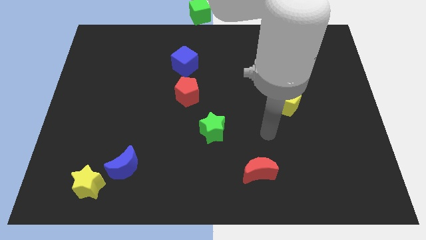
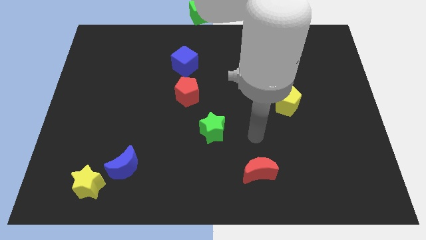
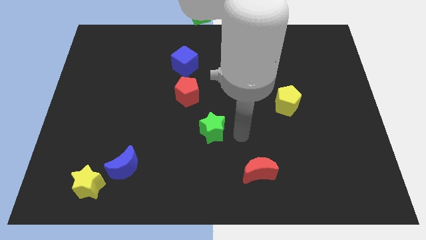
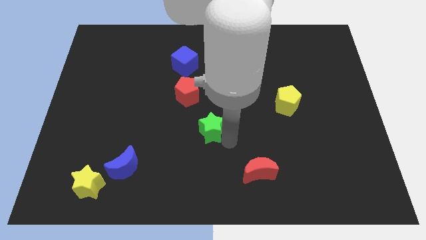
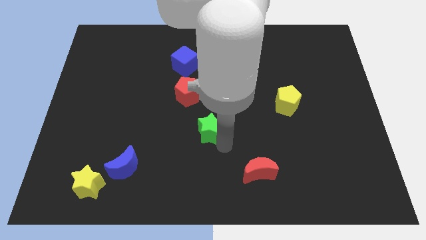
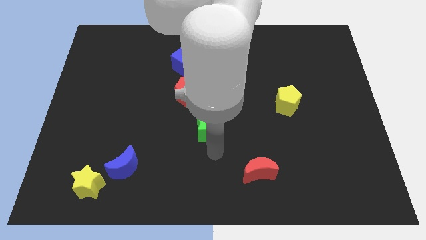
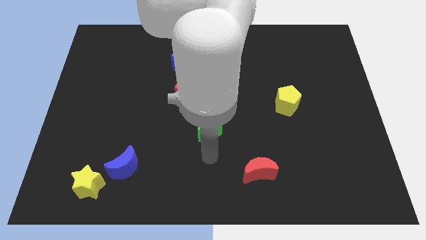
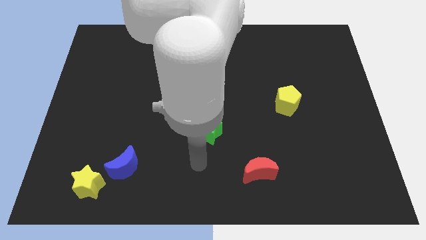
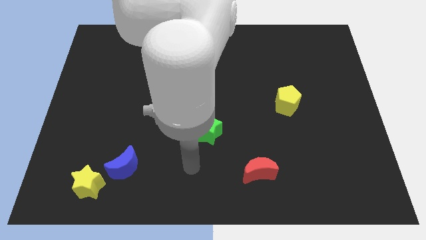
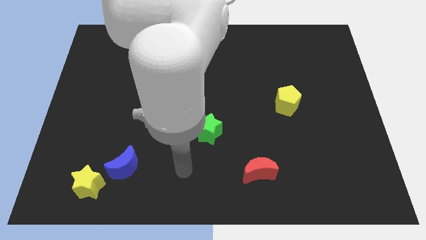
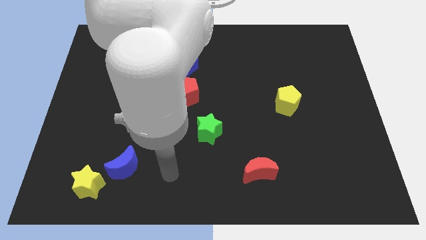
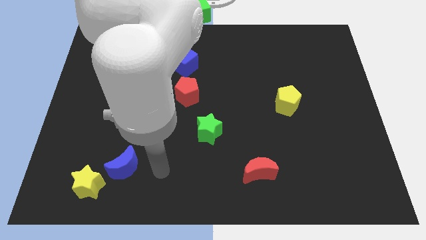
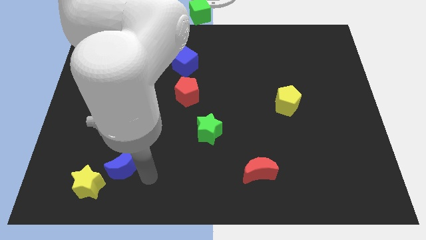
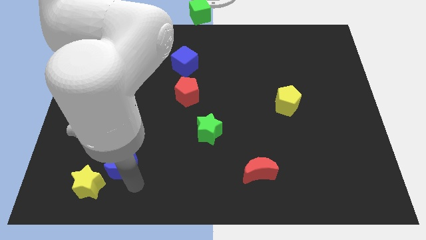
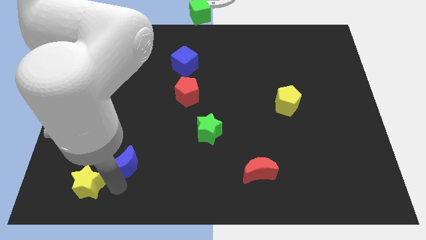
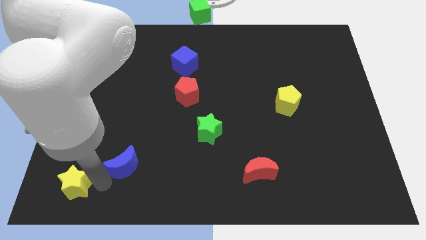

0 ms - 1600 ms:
separate the blue moon from the yellow star

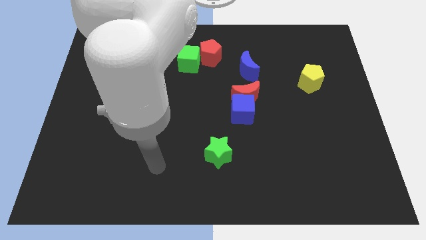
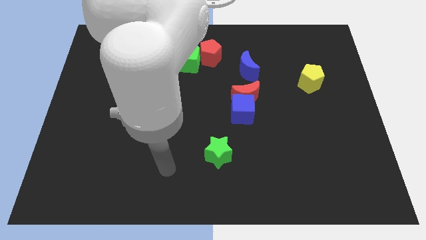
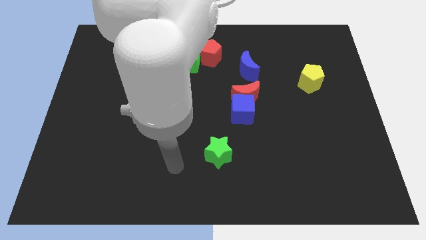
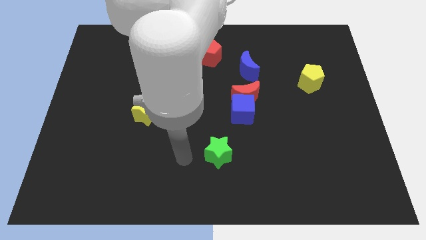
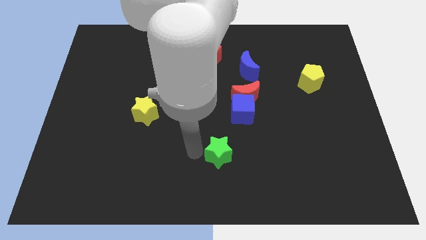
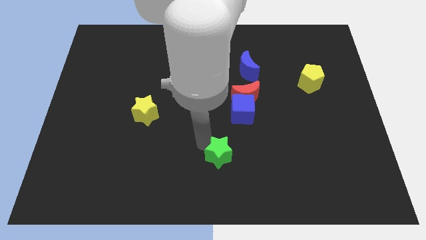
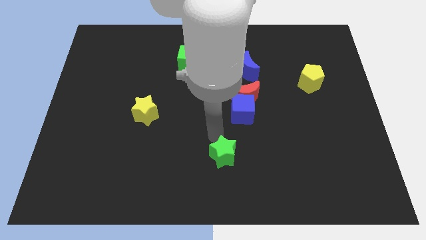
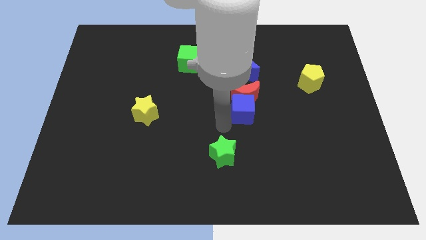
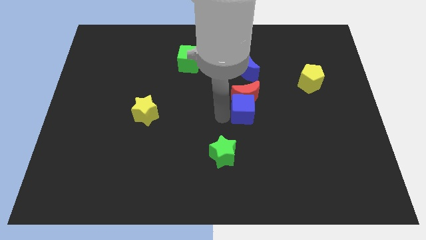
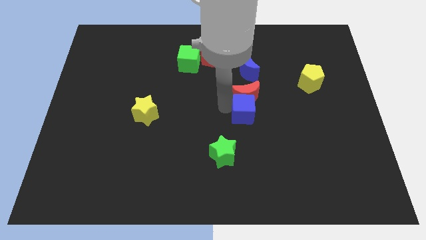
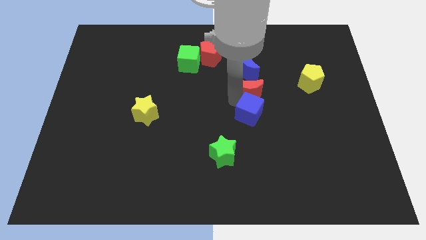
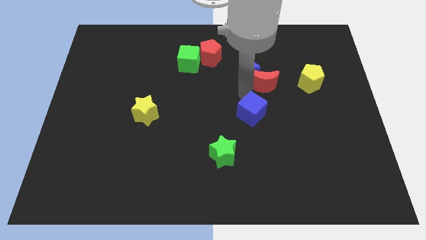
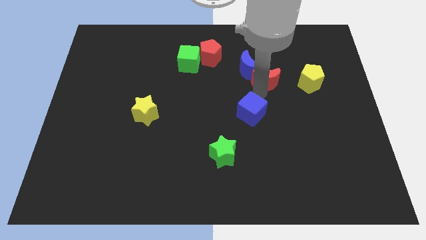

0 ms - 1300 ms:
pull the blue cube apart from the red moon

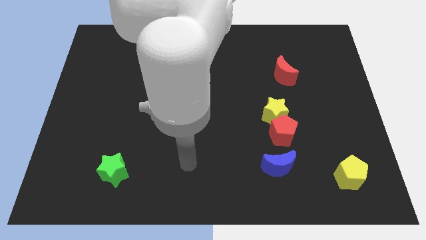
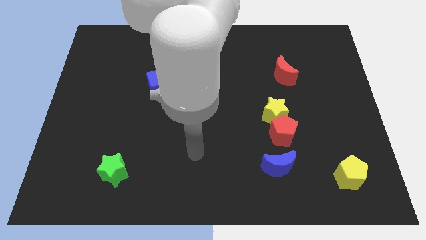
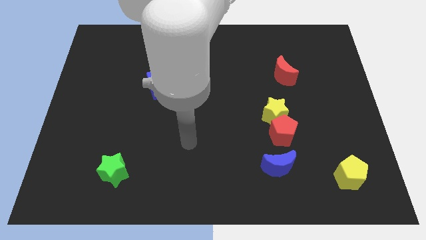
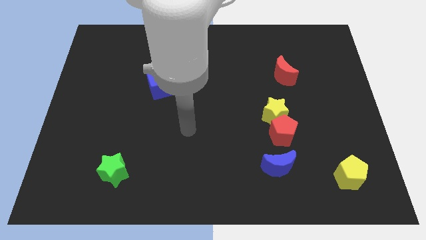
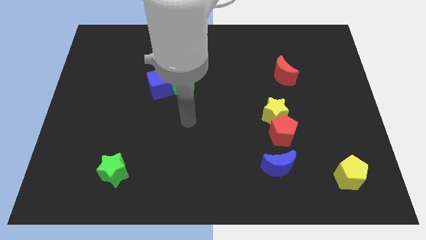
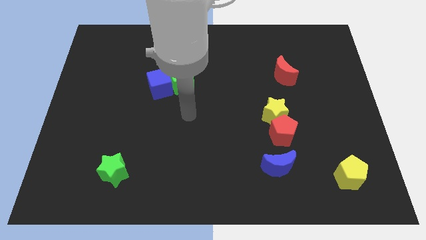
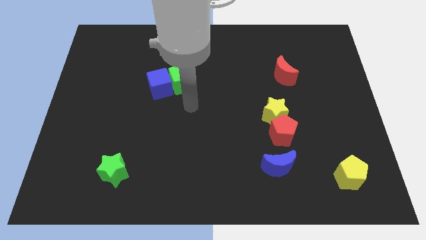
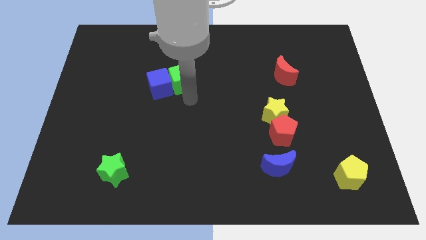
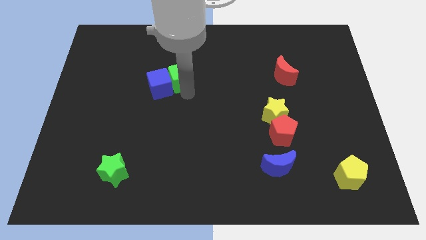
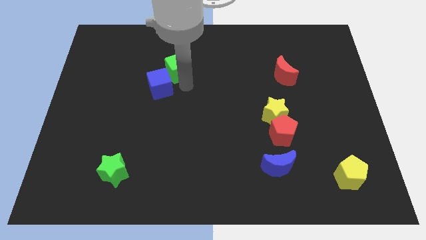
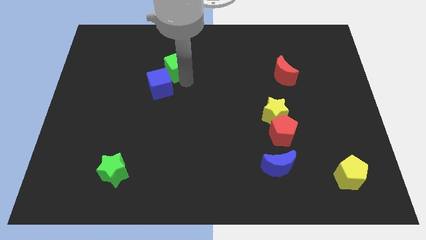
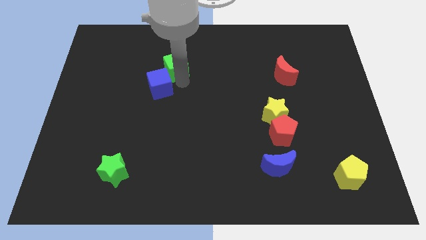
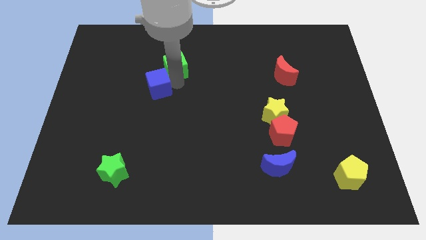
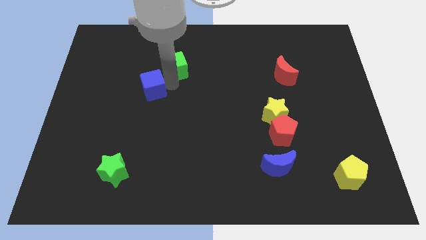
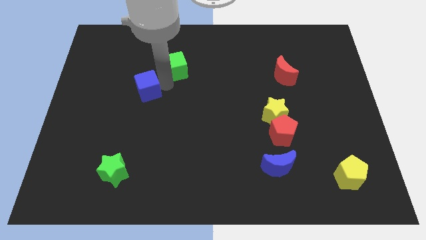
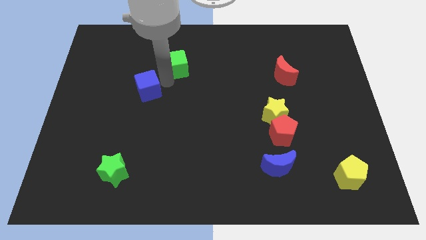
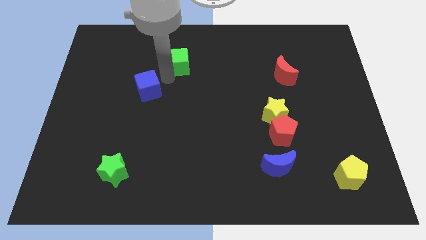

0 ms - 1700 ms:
separate the blue cube from the green cube

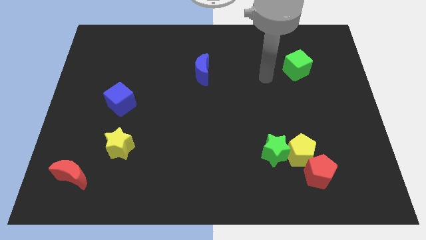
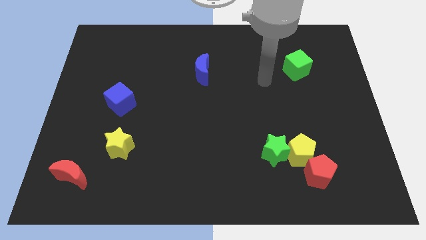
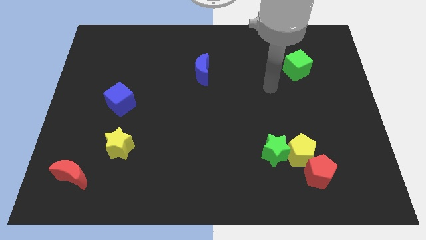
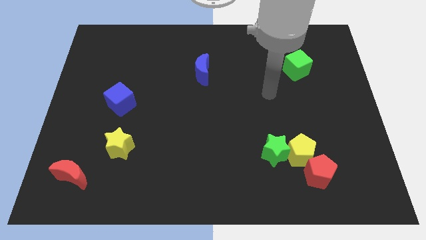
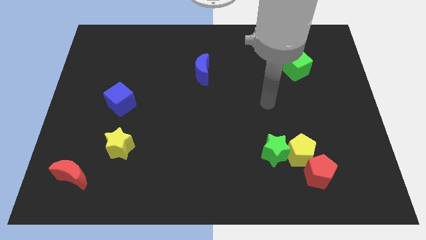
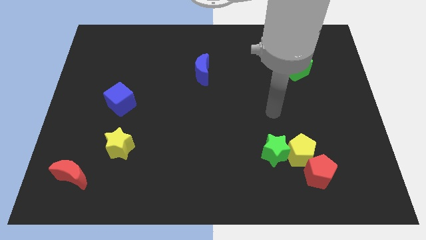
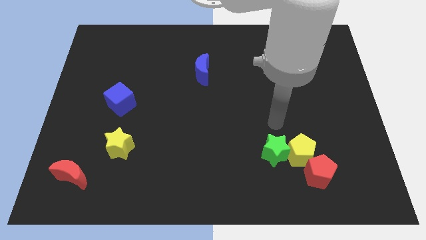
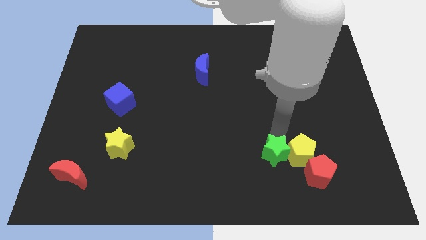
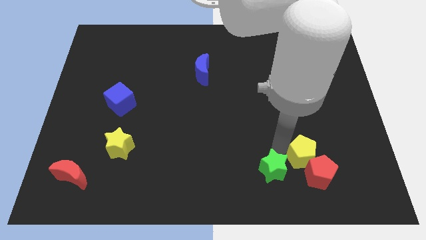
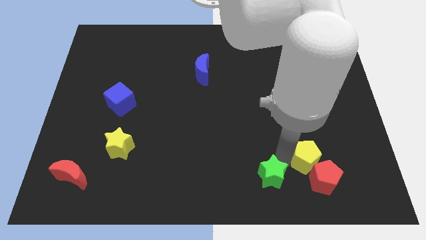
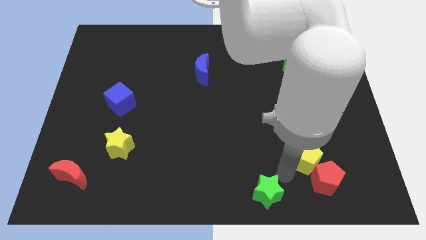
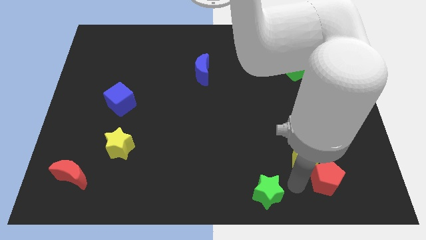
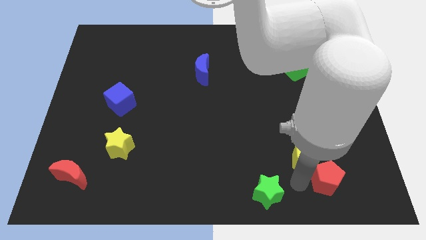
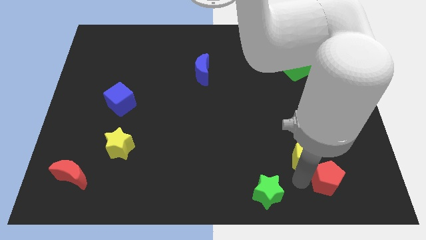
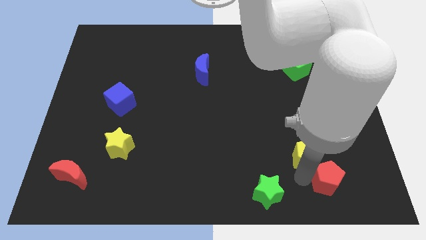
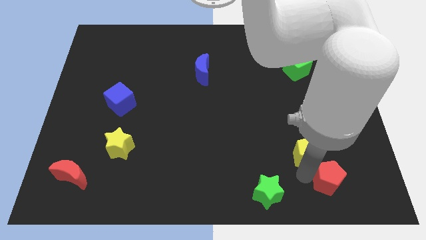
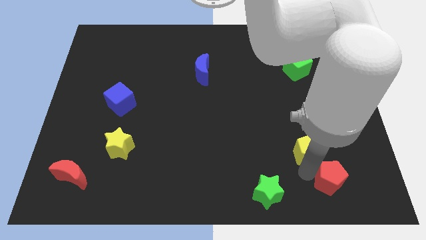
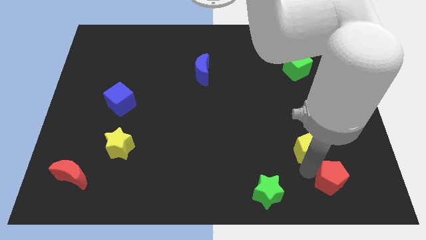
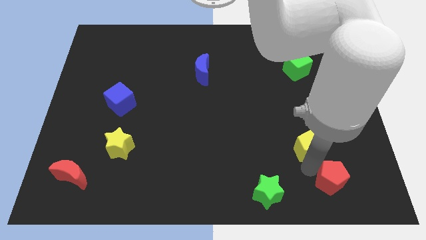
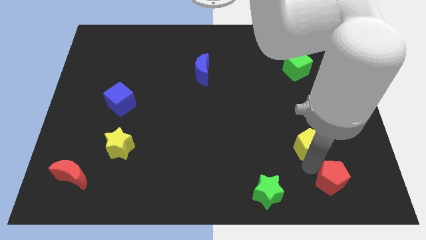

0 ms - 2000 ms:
move the yellow pentagon away from the green star and red pentagon

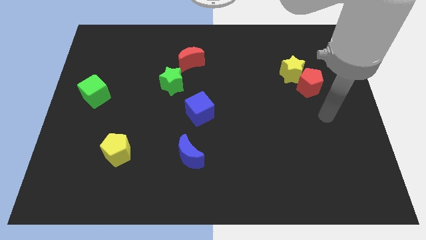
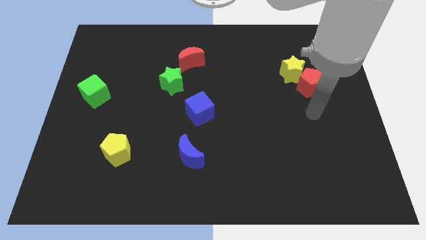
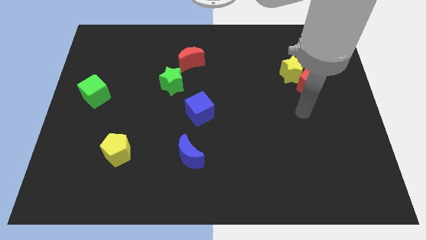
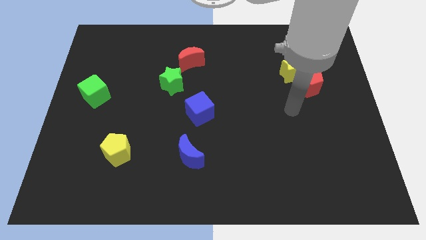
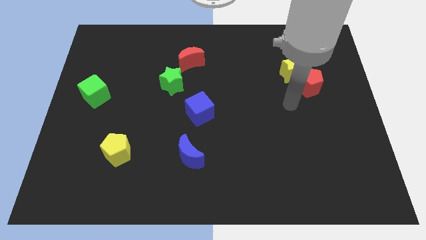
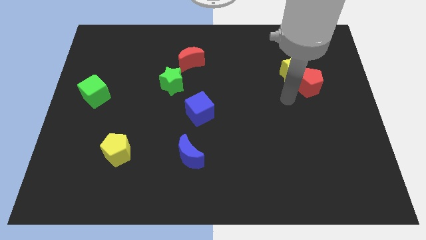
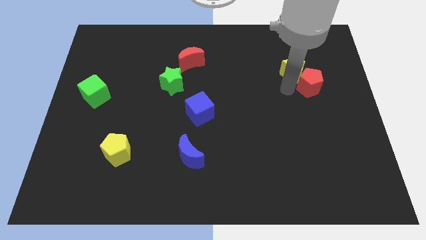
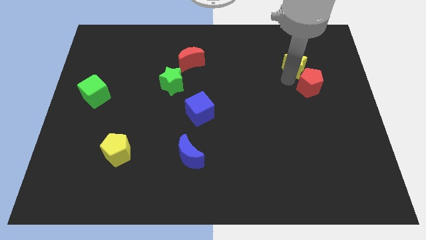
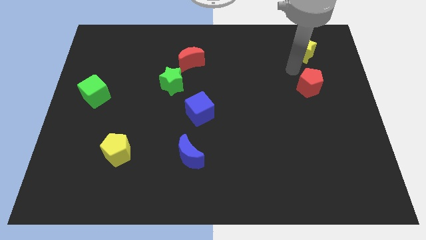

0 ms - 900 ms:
move the red pentagon away from the yellow star

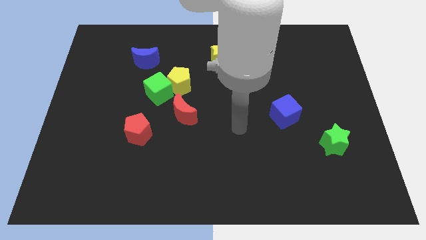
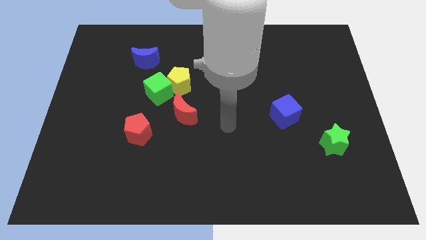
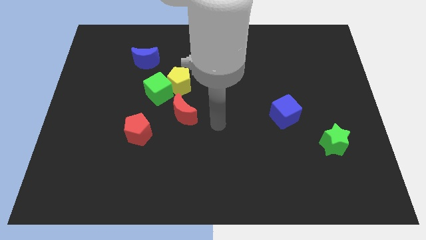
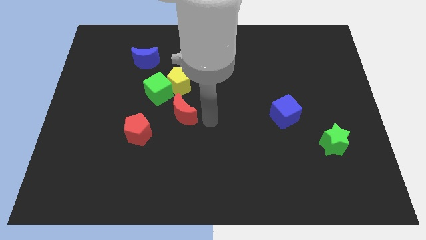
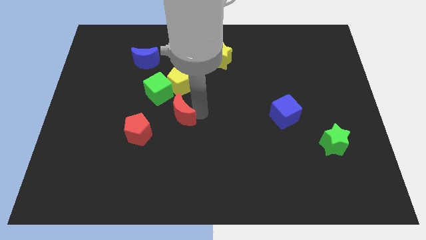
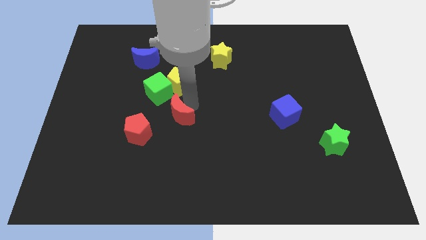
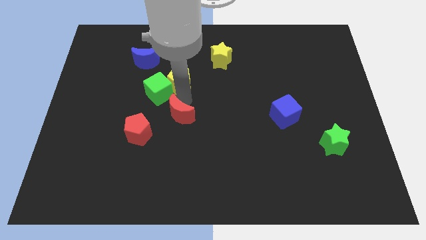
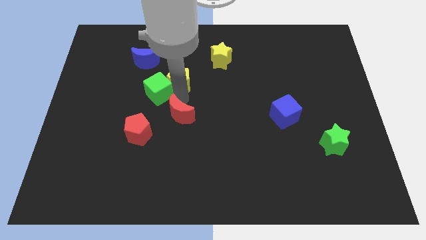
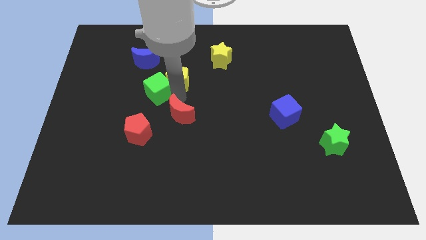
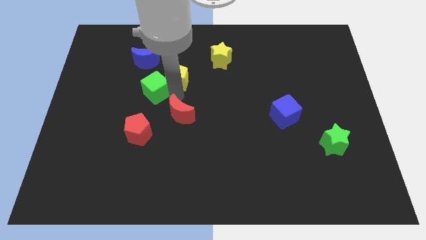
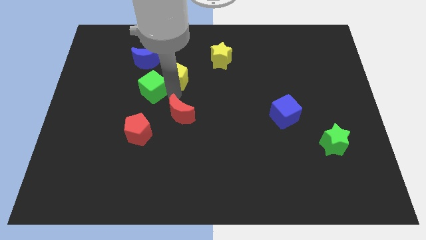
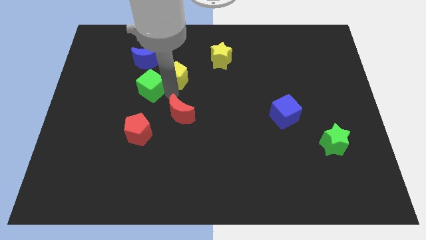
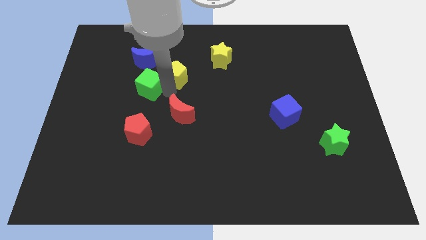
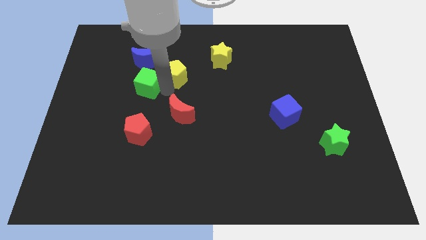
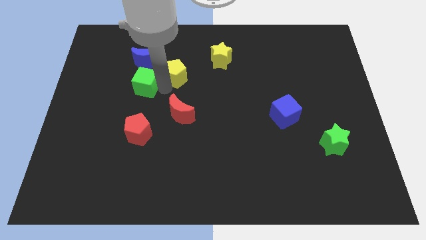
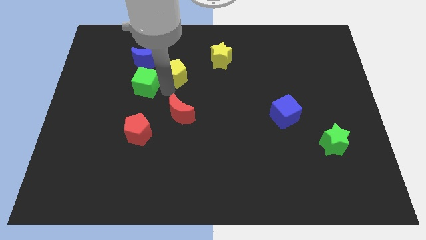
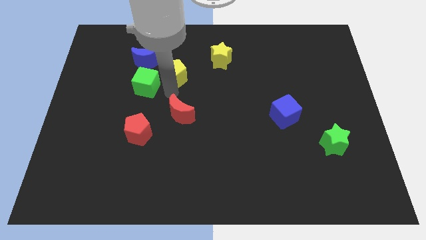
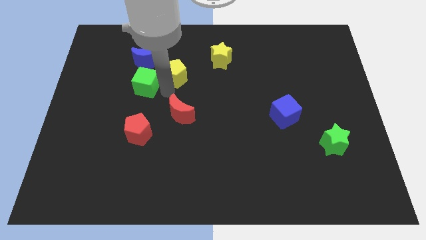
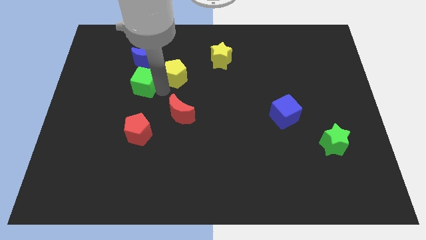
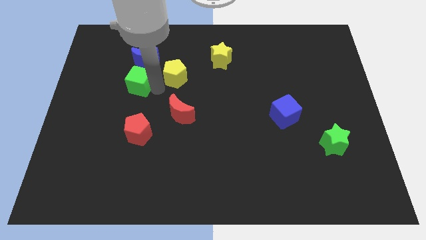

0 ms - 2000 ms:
move the green cube away from the yellow pentagon and red moon

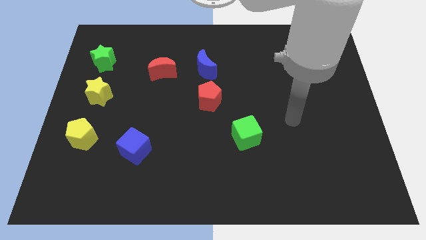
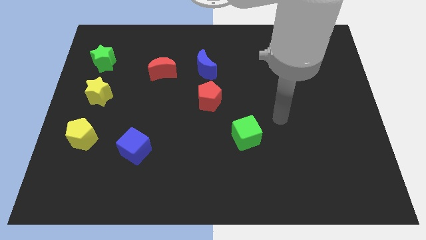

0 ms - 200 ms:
pull the red pentagon apart from the blue moon
